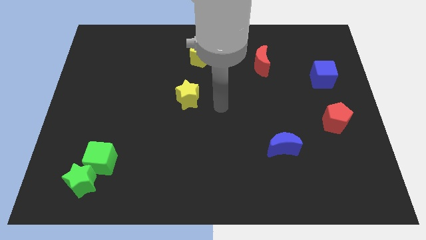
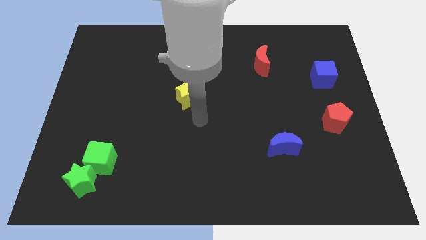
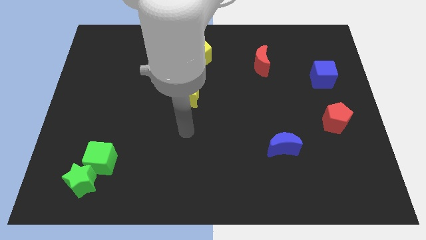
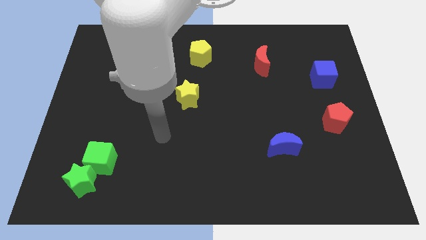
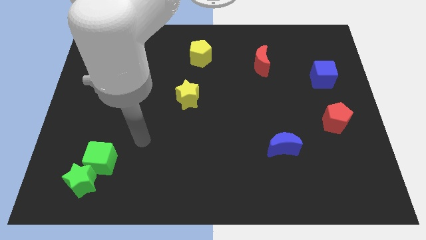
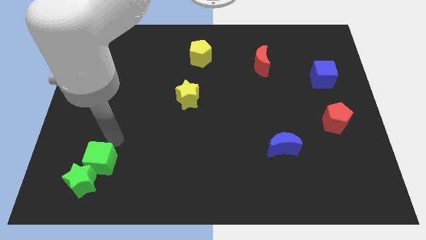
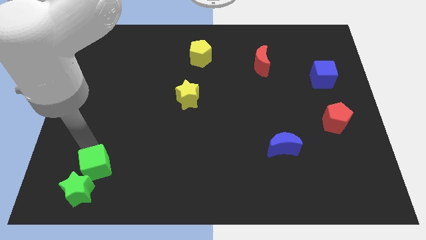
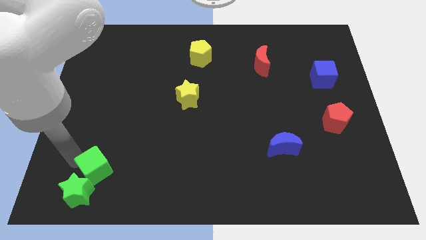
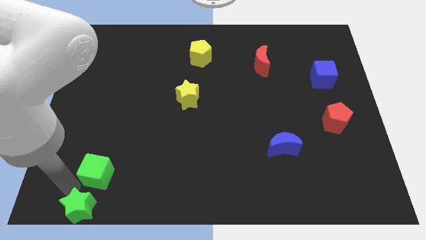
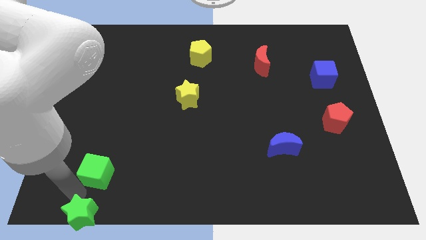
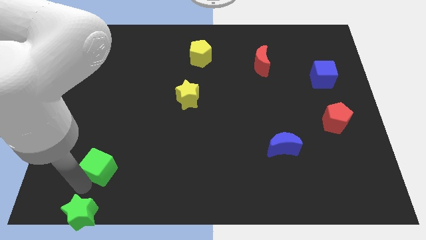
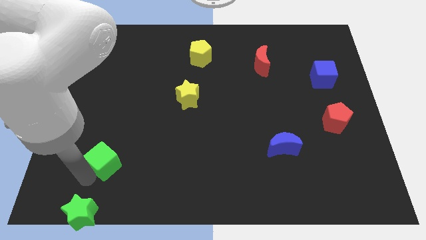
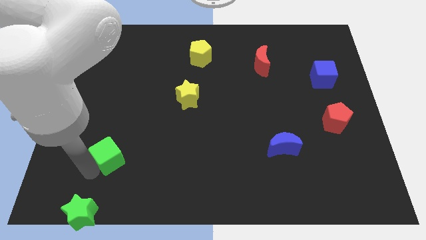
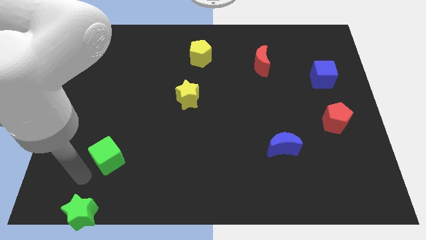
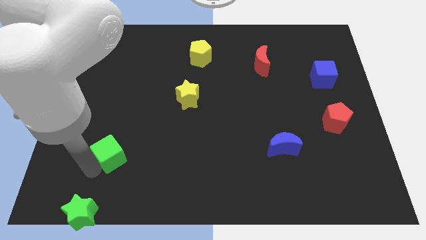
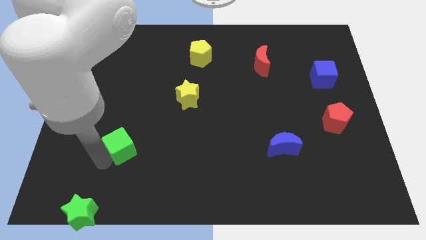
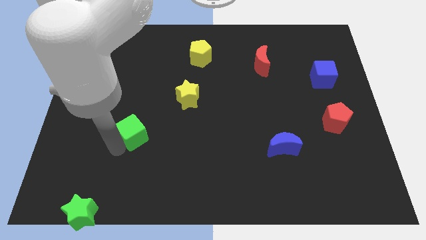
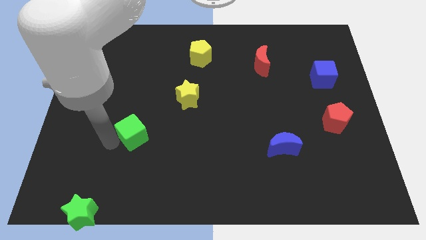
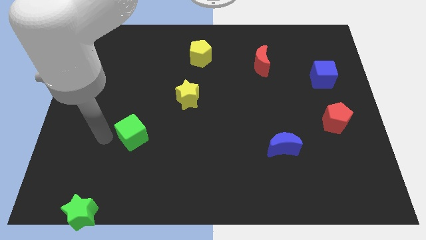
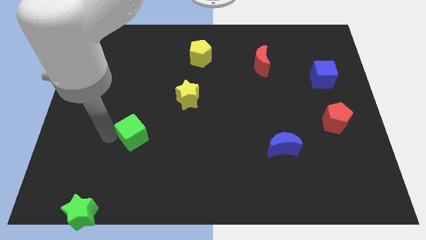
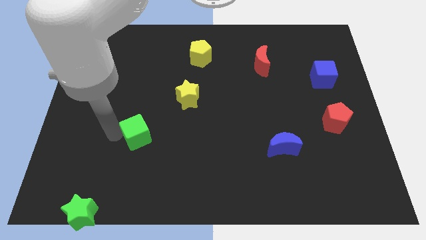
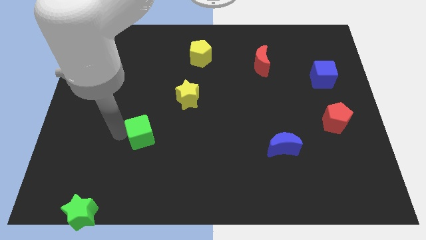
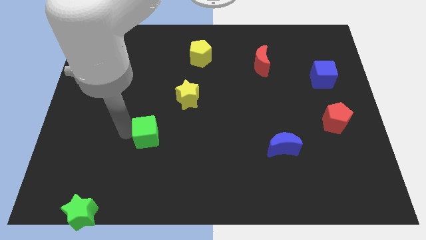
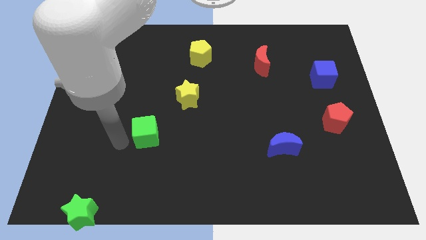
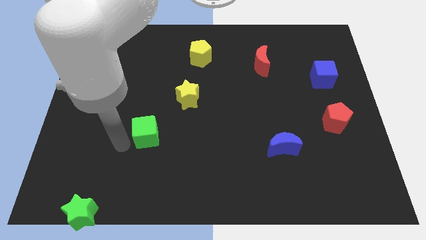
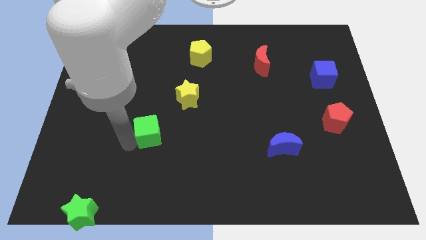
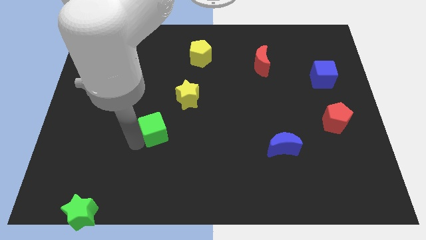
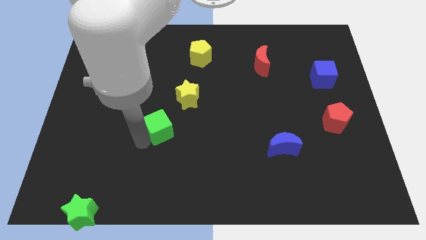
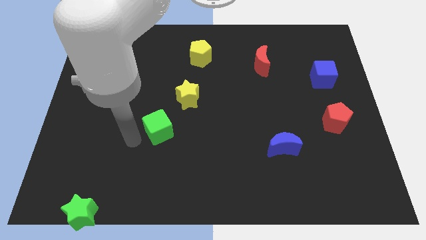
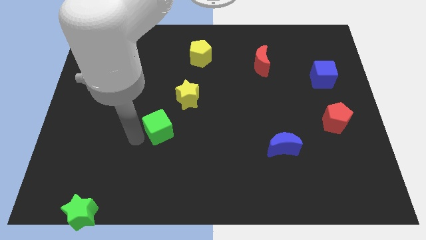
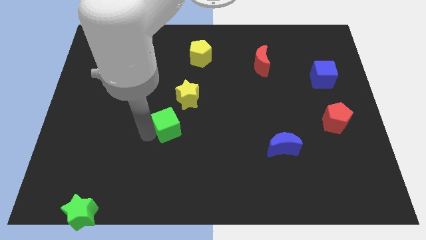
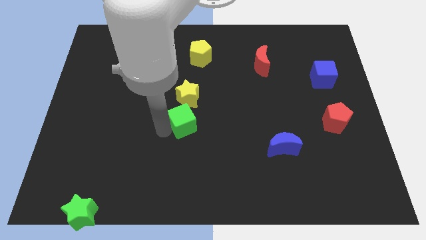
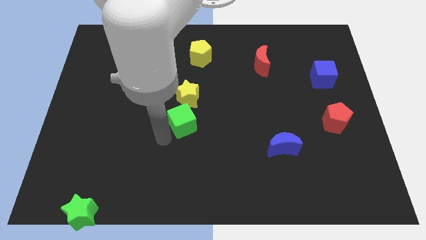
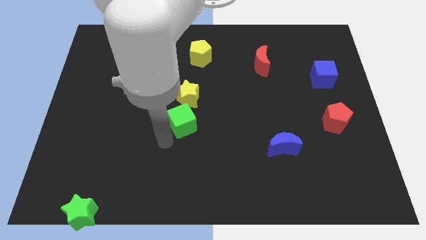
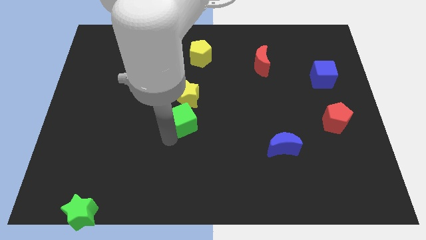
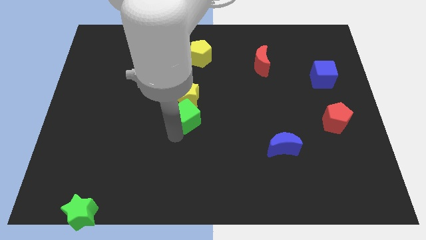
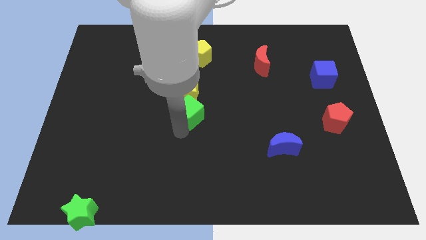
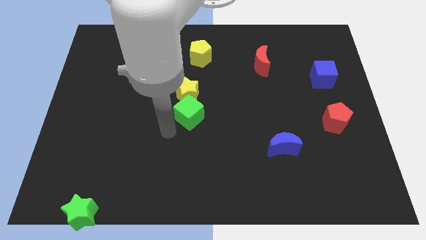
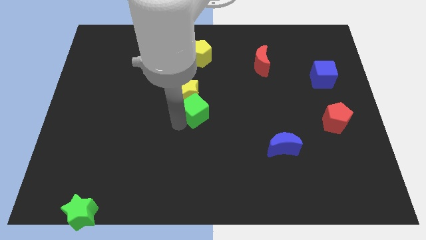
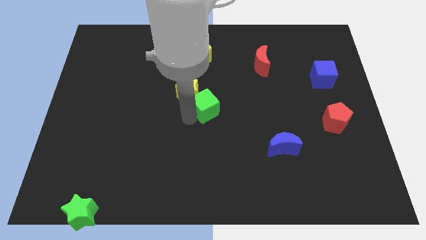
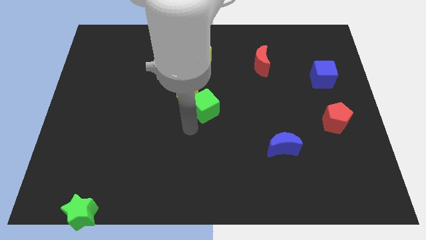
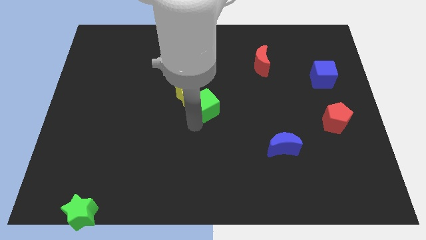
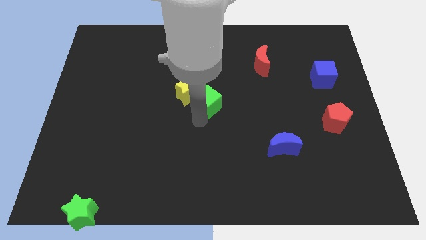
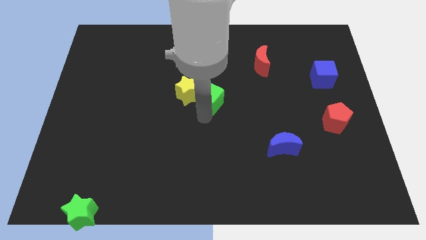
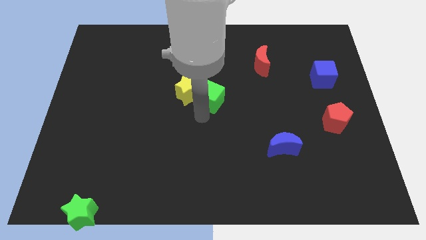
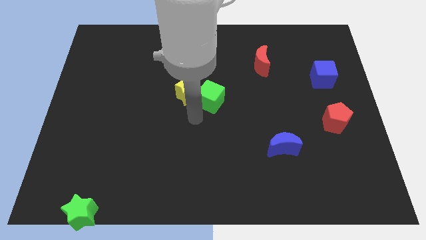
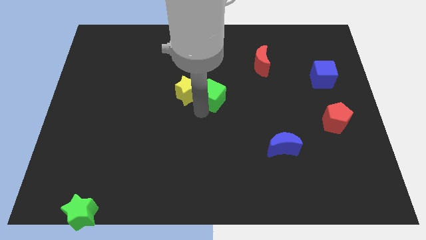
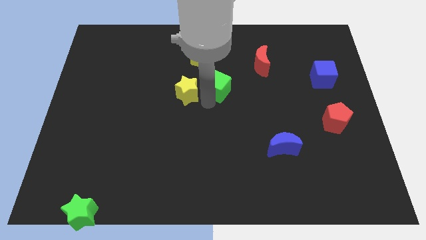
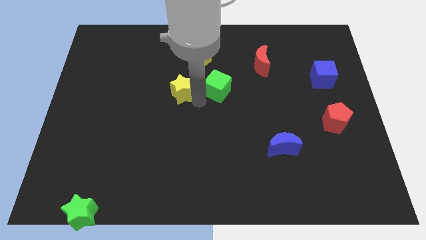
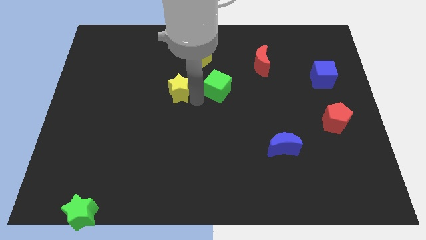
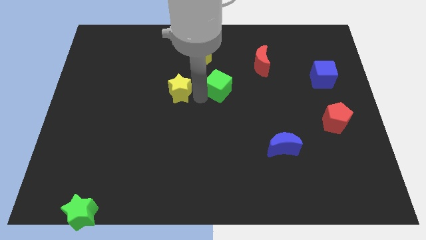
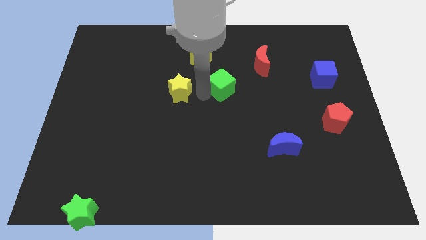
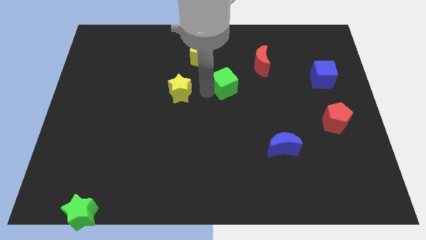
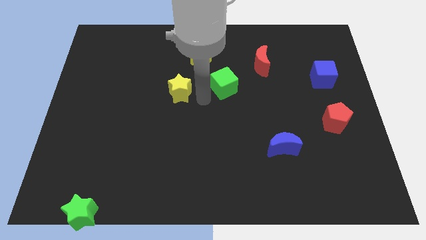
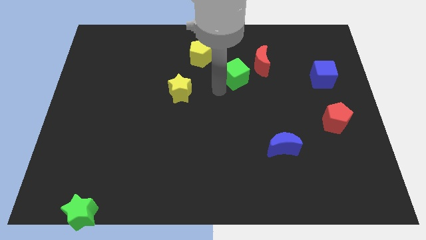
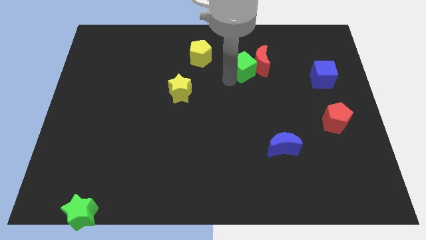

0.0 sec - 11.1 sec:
put the green cube next to the red moon
